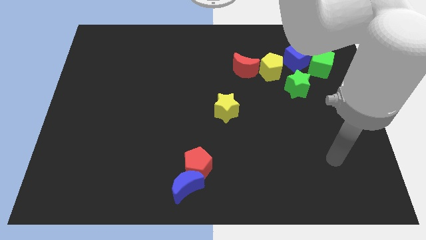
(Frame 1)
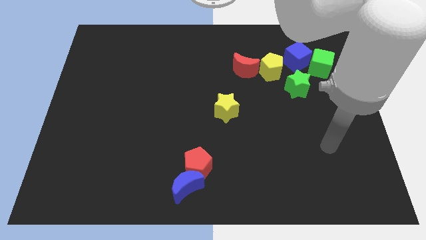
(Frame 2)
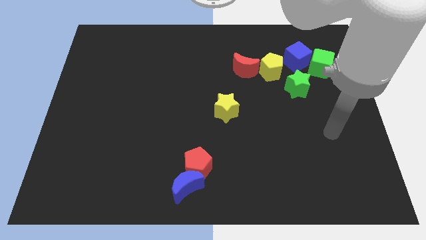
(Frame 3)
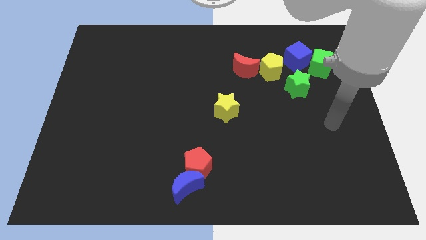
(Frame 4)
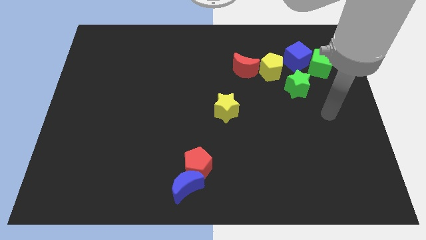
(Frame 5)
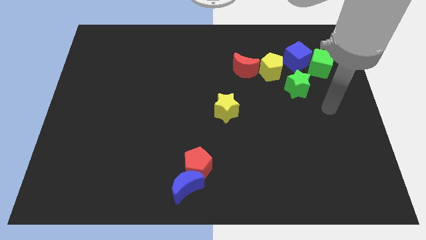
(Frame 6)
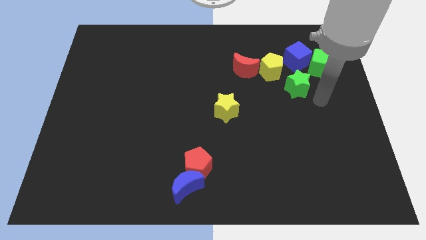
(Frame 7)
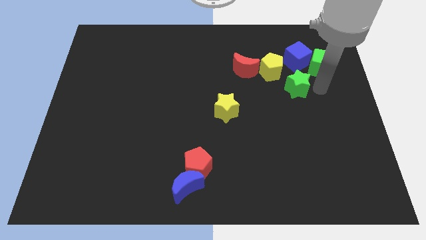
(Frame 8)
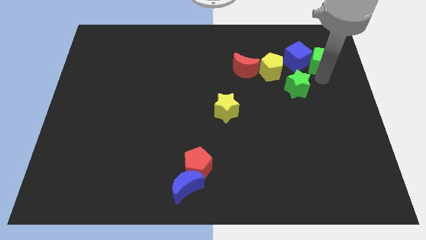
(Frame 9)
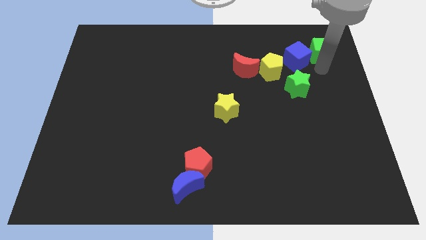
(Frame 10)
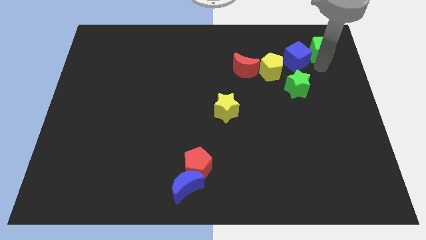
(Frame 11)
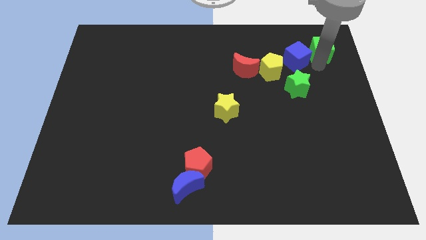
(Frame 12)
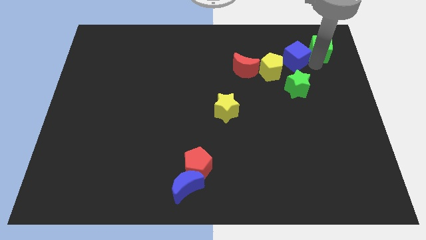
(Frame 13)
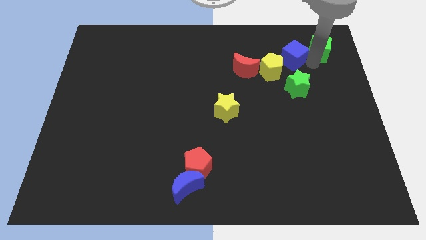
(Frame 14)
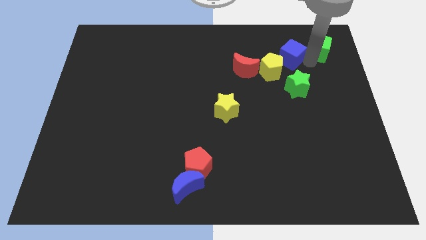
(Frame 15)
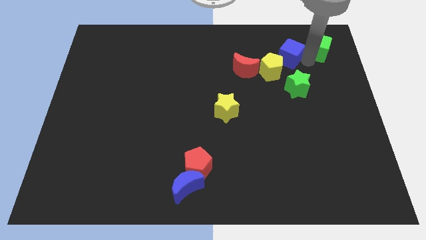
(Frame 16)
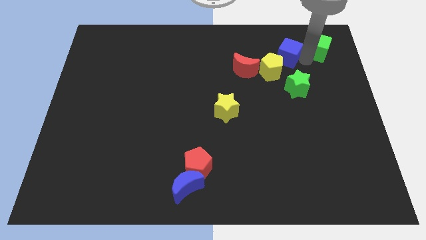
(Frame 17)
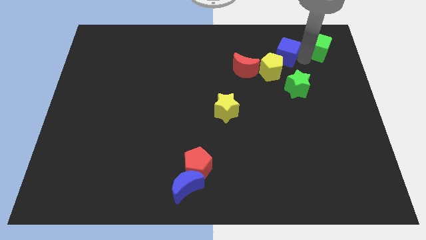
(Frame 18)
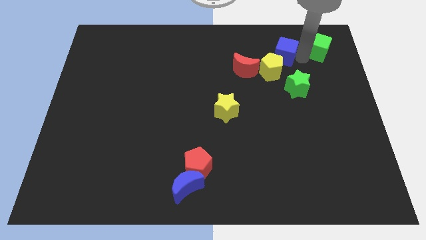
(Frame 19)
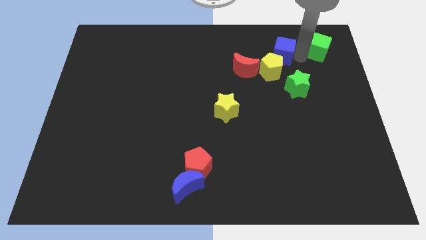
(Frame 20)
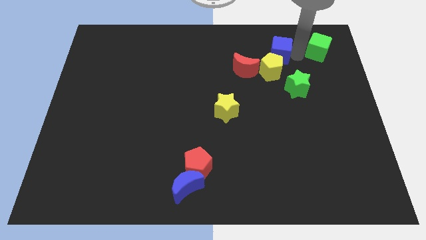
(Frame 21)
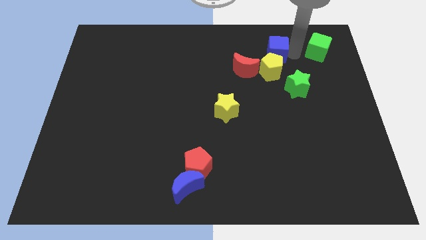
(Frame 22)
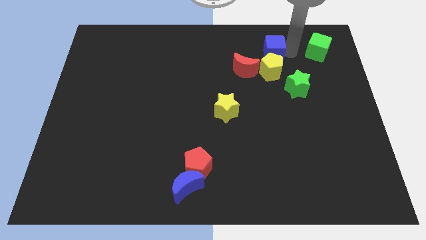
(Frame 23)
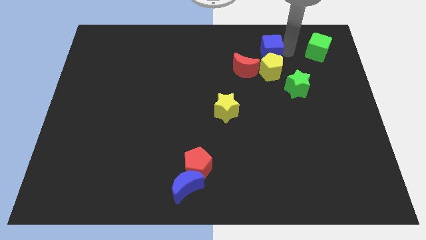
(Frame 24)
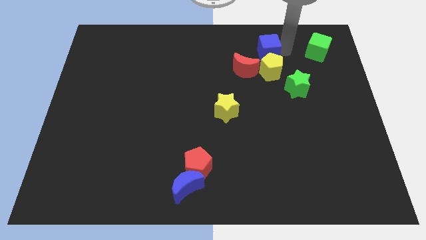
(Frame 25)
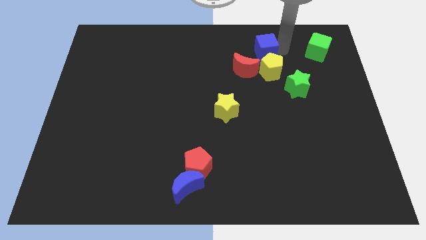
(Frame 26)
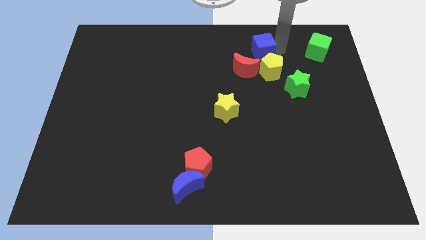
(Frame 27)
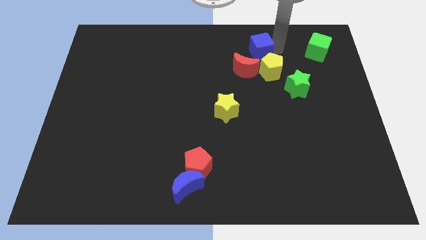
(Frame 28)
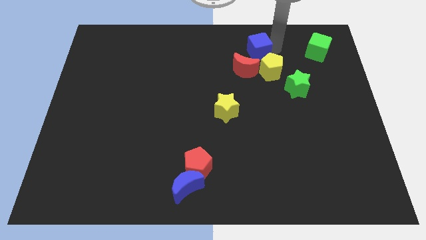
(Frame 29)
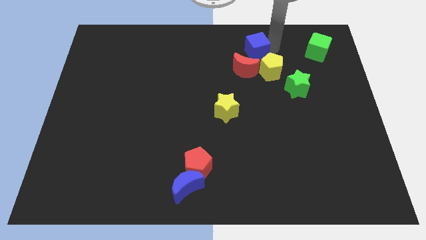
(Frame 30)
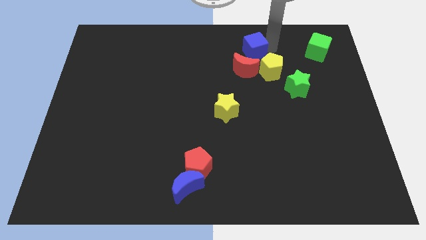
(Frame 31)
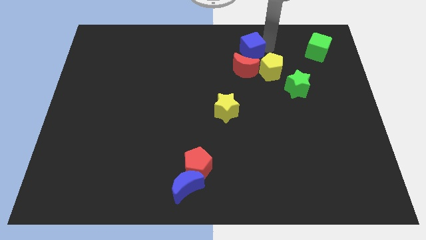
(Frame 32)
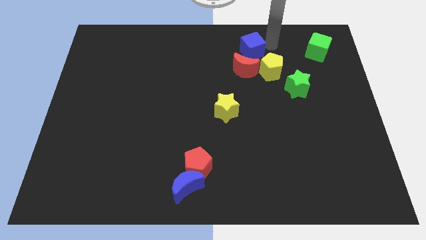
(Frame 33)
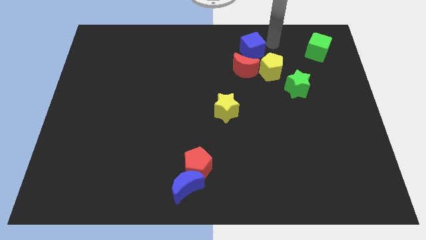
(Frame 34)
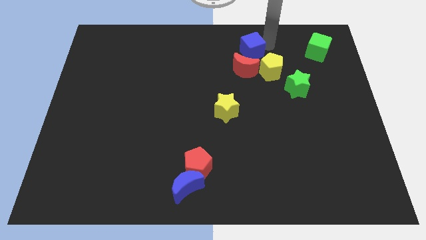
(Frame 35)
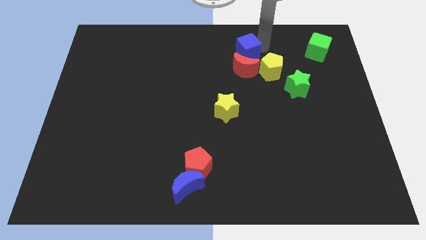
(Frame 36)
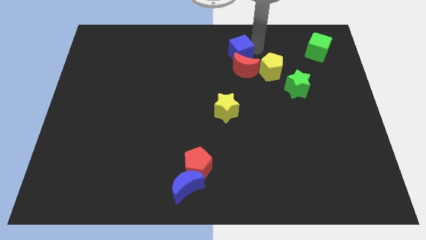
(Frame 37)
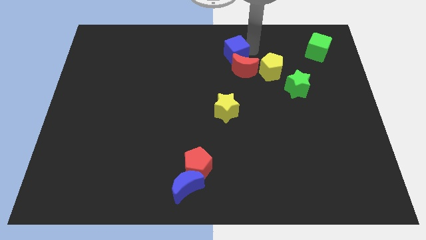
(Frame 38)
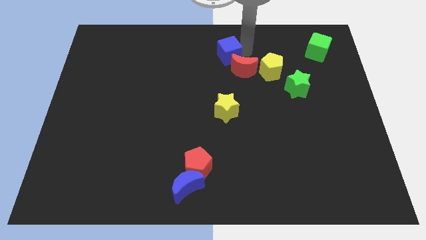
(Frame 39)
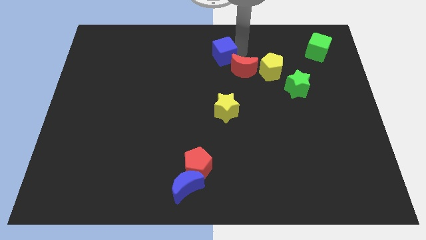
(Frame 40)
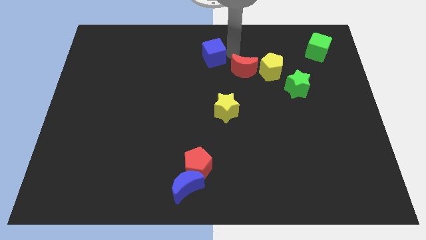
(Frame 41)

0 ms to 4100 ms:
slide the blue cube left

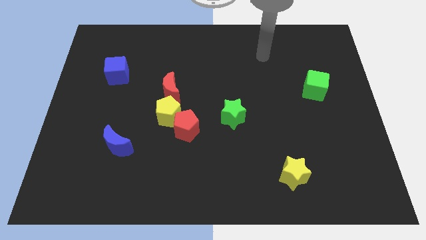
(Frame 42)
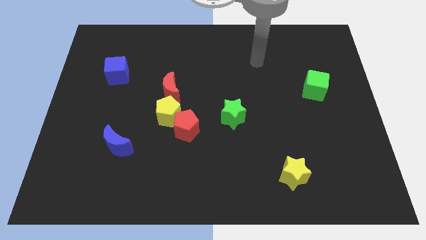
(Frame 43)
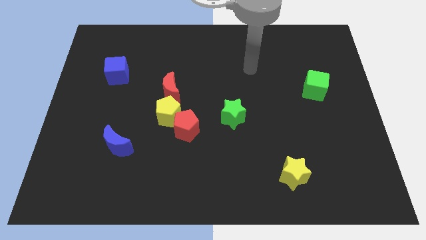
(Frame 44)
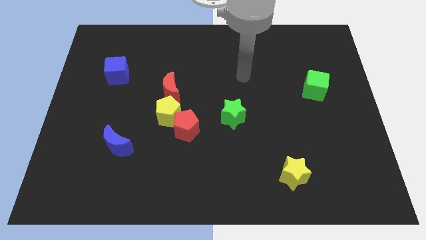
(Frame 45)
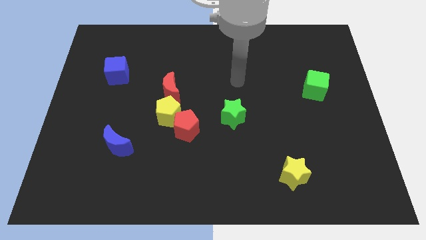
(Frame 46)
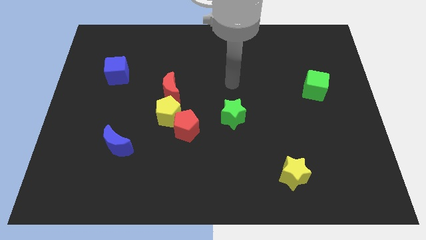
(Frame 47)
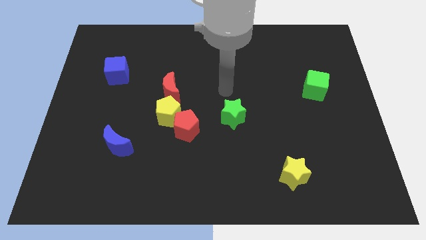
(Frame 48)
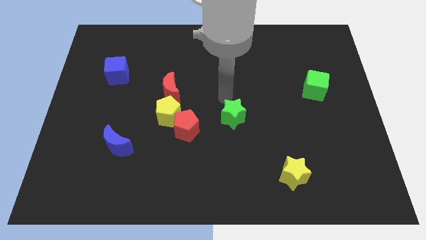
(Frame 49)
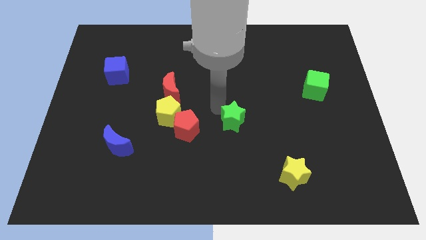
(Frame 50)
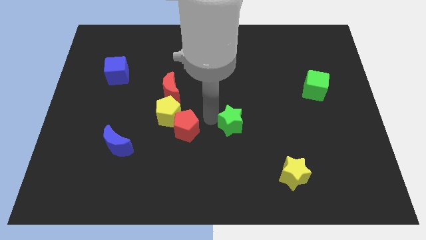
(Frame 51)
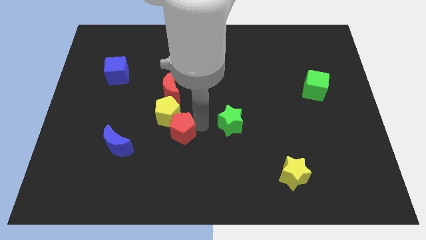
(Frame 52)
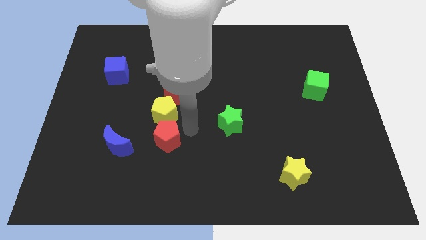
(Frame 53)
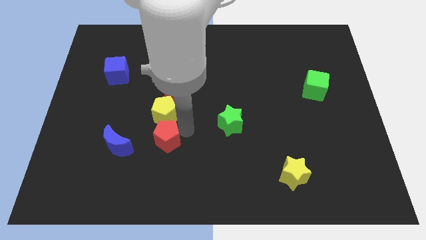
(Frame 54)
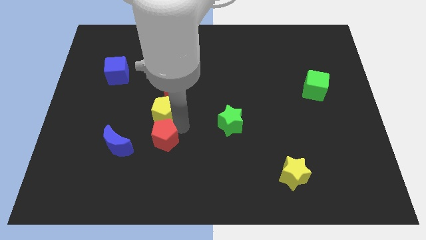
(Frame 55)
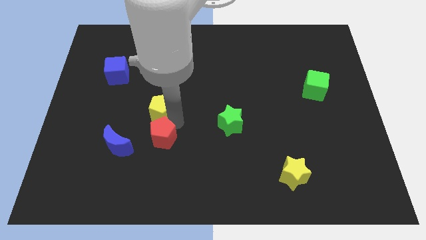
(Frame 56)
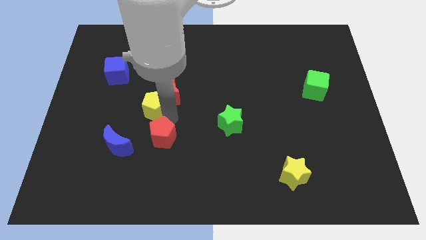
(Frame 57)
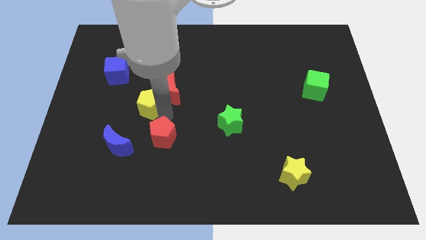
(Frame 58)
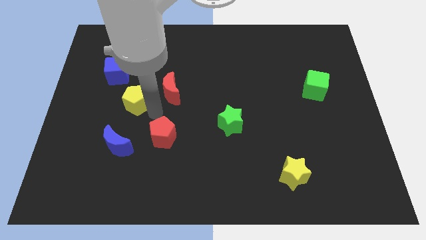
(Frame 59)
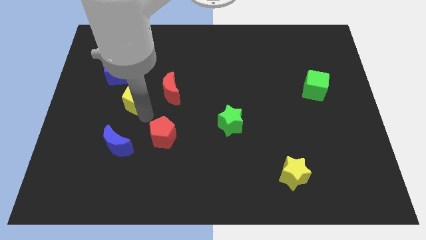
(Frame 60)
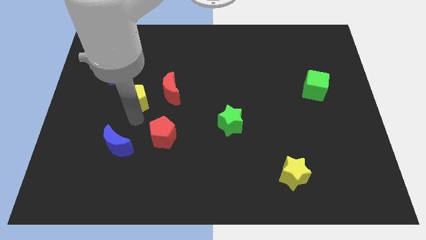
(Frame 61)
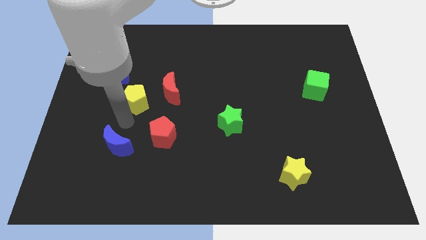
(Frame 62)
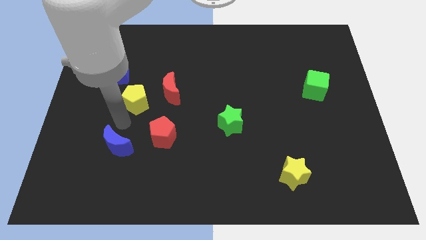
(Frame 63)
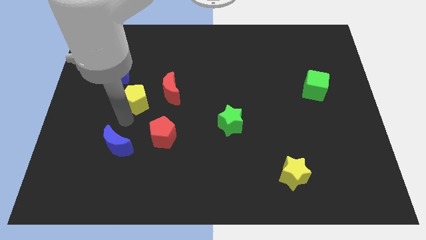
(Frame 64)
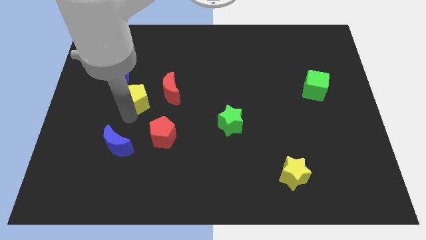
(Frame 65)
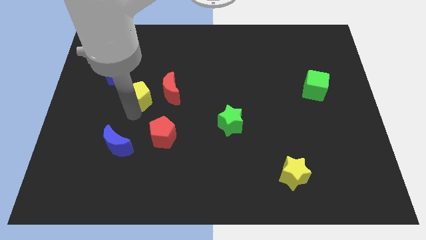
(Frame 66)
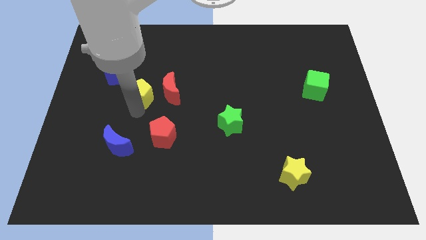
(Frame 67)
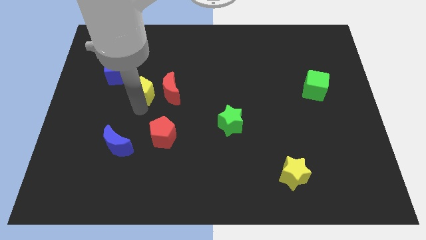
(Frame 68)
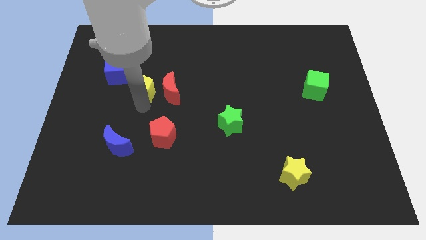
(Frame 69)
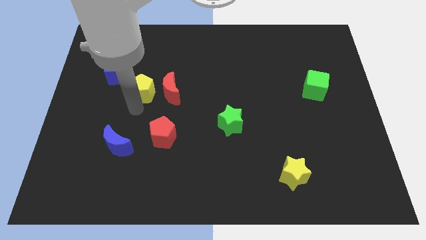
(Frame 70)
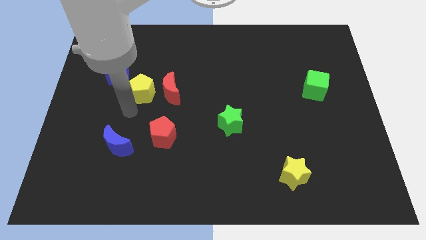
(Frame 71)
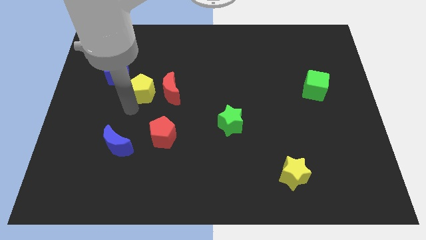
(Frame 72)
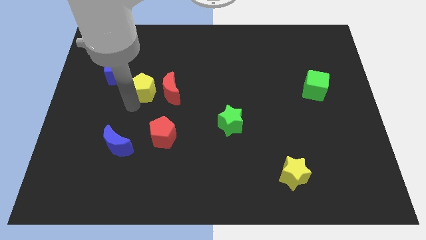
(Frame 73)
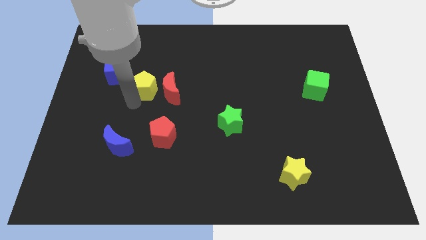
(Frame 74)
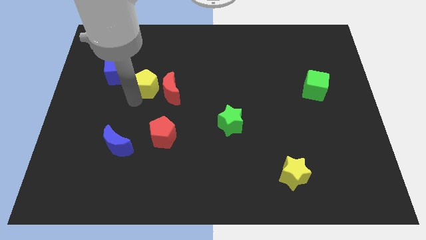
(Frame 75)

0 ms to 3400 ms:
push the yellow pentagon a little bit up

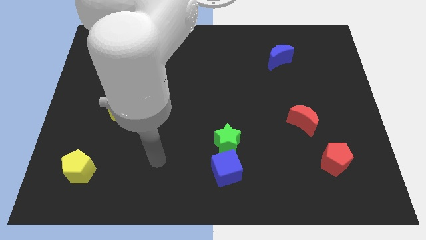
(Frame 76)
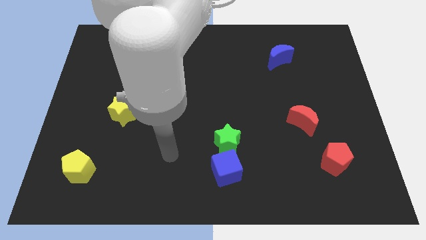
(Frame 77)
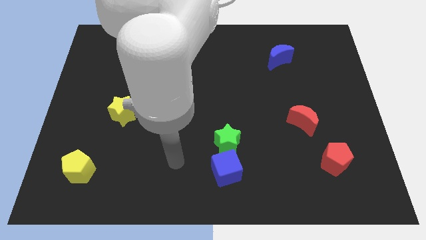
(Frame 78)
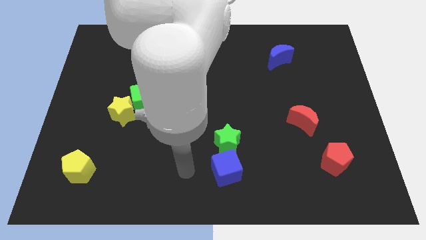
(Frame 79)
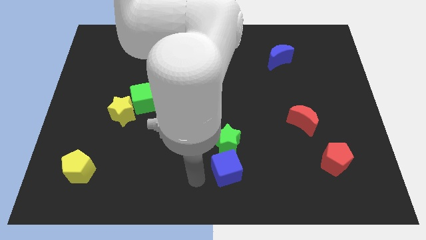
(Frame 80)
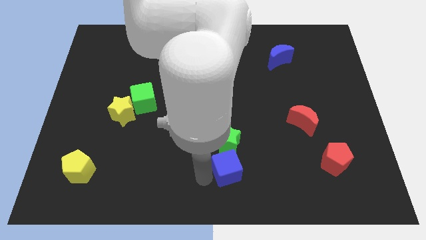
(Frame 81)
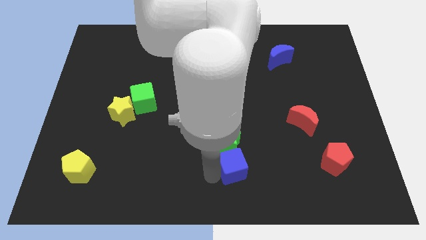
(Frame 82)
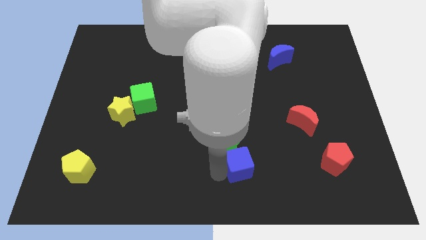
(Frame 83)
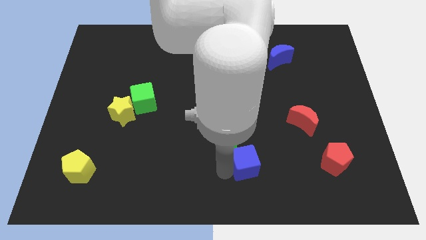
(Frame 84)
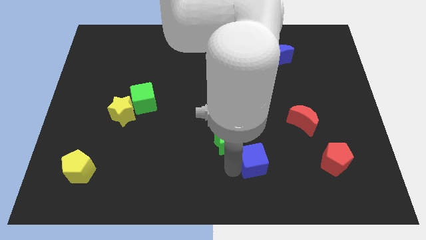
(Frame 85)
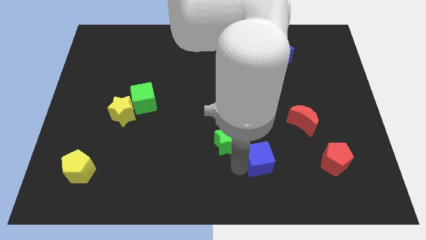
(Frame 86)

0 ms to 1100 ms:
push the blue cube right a bit
